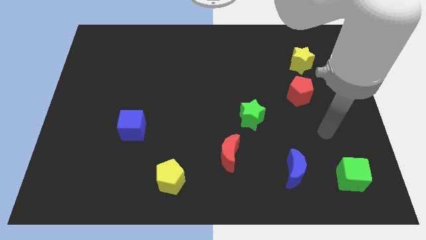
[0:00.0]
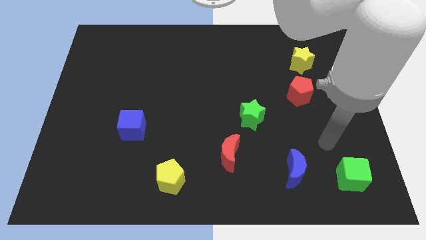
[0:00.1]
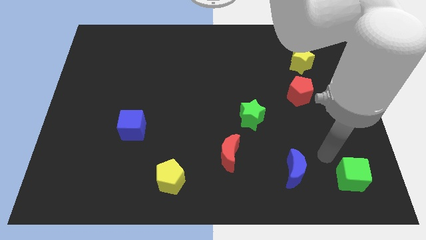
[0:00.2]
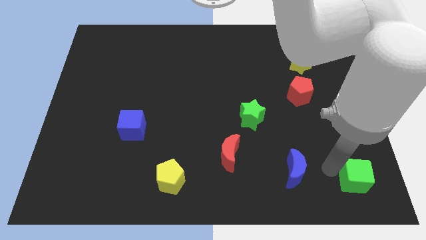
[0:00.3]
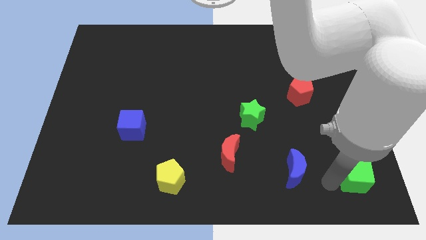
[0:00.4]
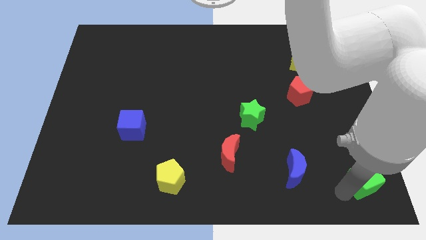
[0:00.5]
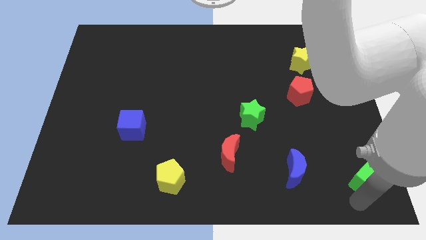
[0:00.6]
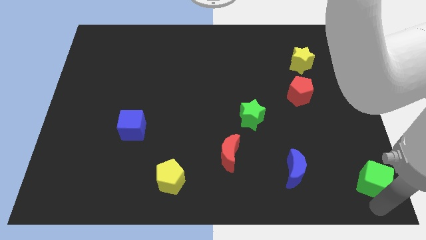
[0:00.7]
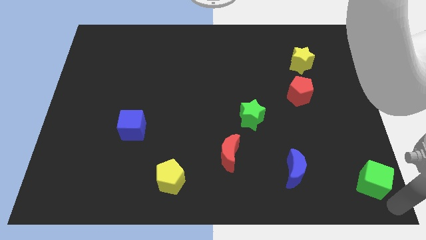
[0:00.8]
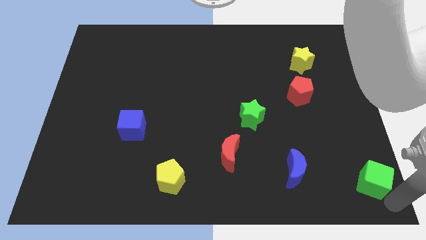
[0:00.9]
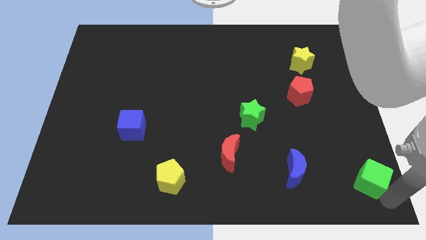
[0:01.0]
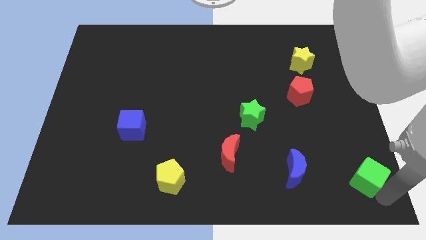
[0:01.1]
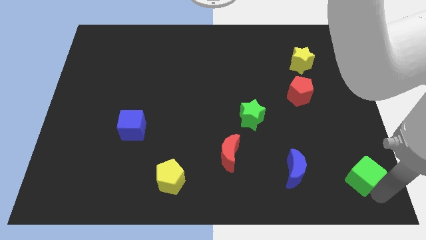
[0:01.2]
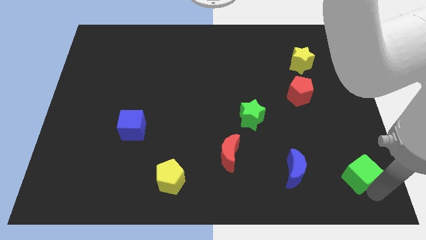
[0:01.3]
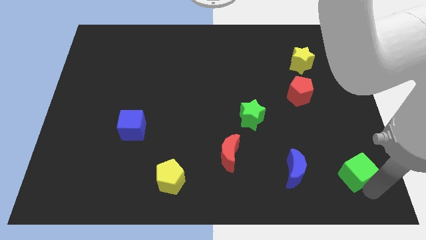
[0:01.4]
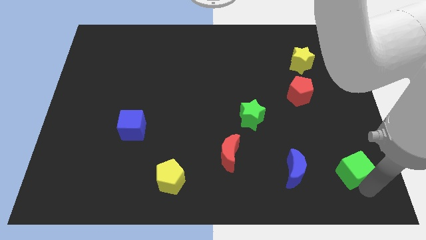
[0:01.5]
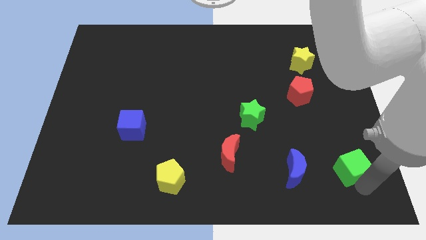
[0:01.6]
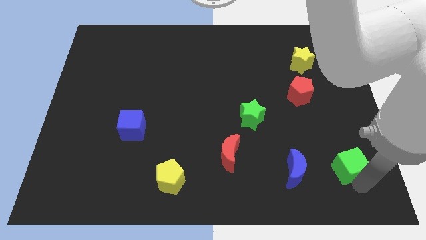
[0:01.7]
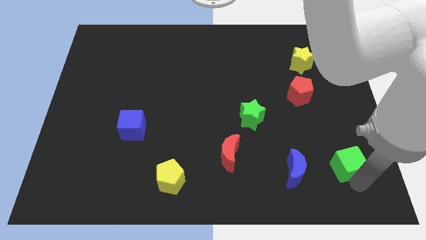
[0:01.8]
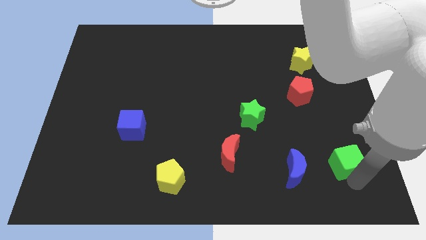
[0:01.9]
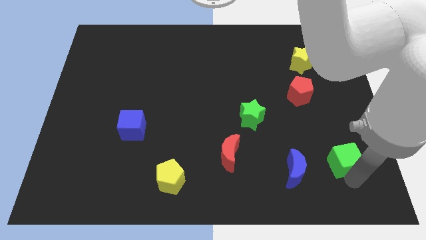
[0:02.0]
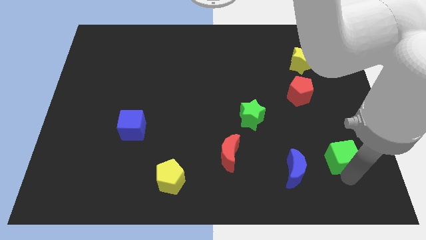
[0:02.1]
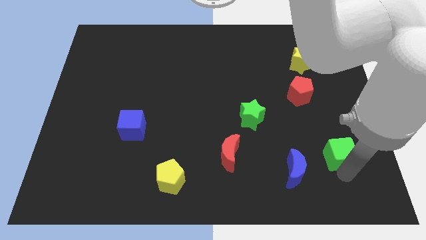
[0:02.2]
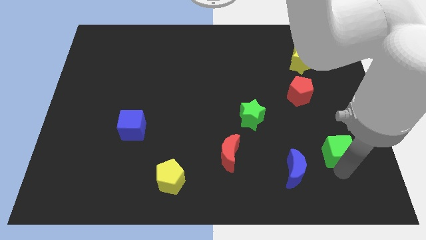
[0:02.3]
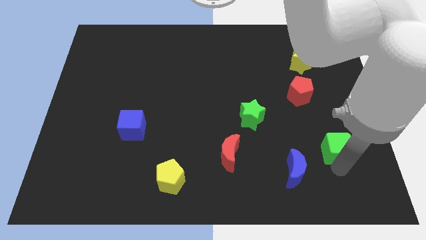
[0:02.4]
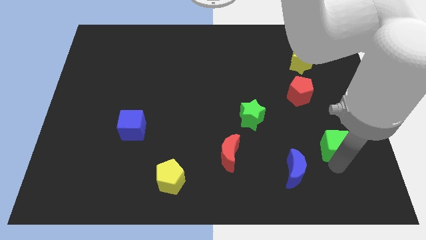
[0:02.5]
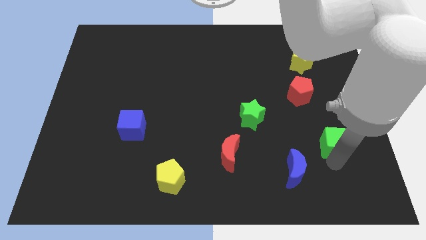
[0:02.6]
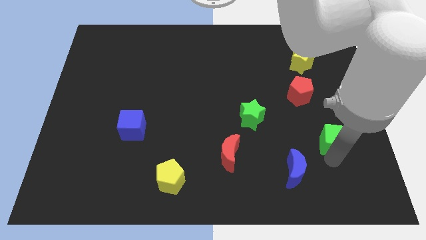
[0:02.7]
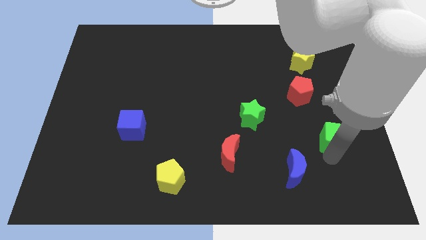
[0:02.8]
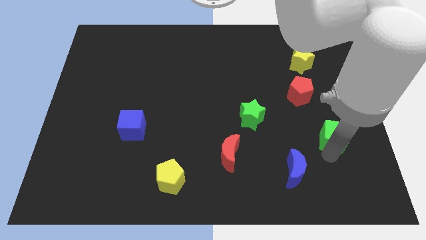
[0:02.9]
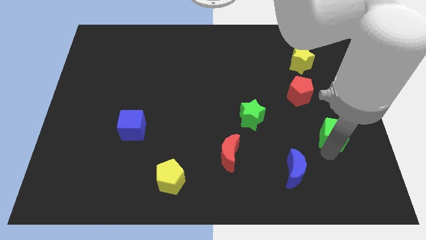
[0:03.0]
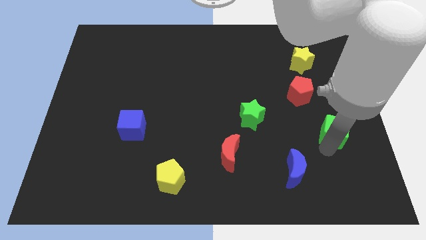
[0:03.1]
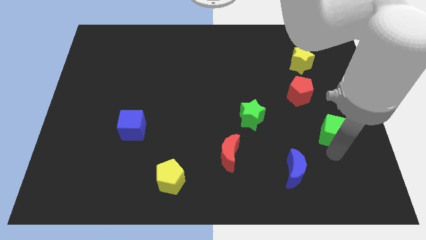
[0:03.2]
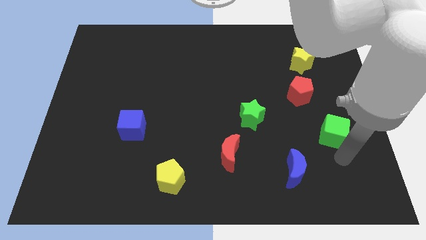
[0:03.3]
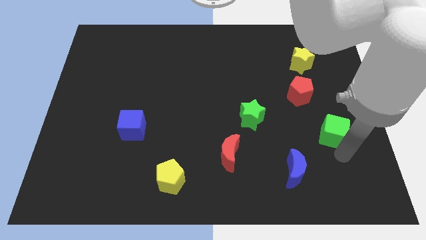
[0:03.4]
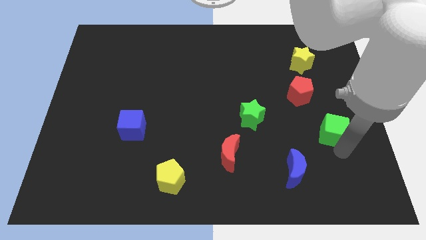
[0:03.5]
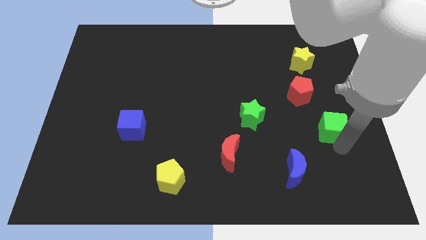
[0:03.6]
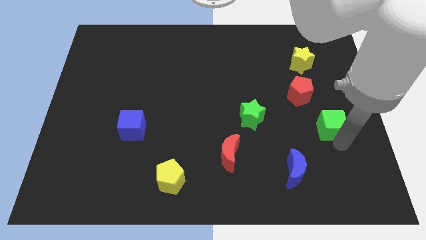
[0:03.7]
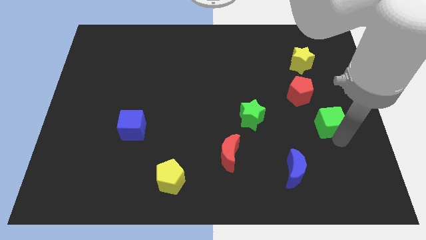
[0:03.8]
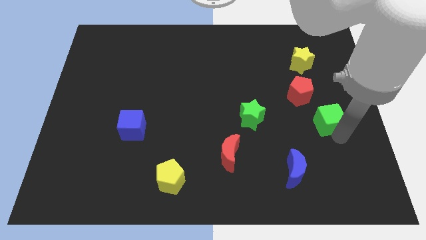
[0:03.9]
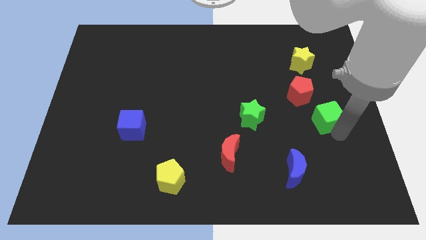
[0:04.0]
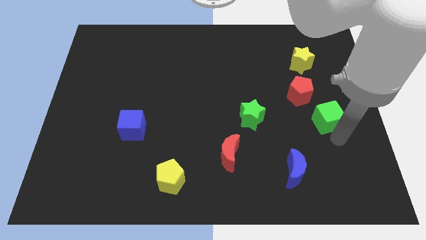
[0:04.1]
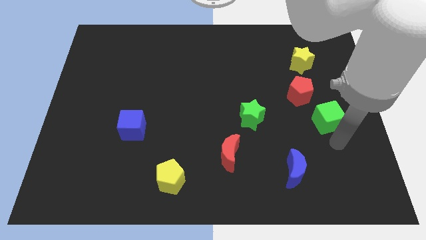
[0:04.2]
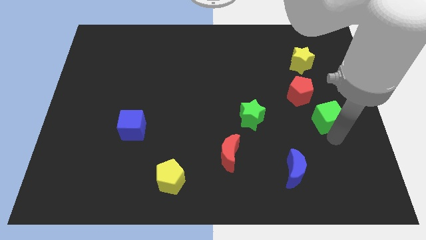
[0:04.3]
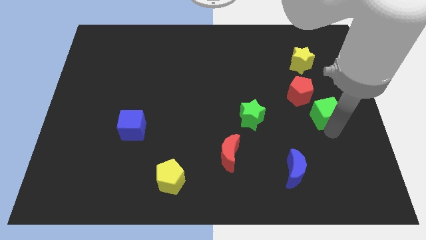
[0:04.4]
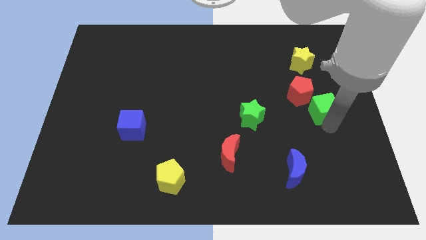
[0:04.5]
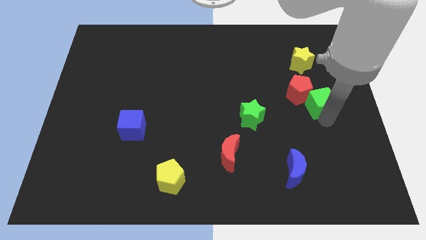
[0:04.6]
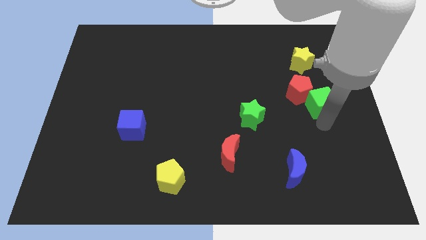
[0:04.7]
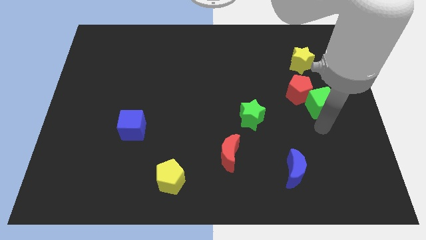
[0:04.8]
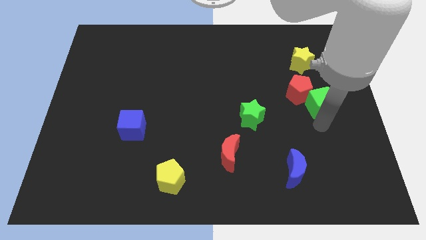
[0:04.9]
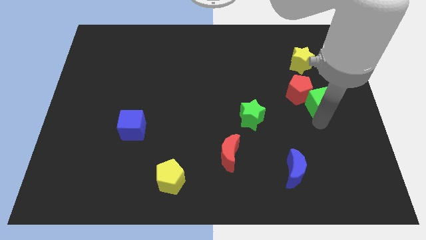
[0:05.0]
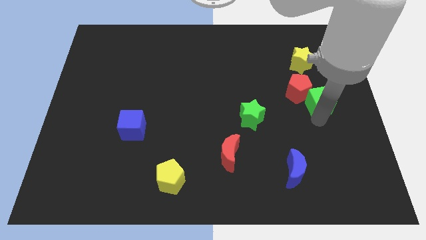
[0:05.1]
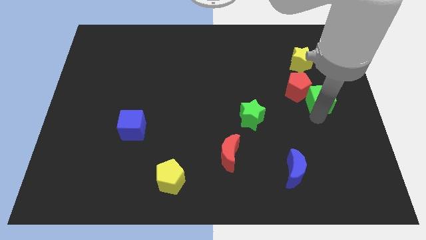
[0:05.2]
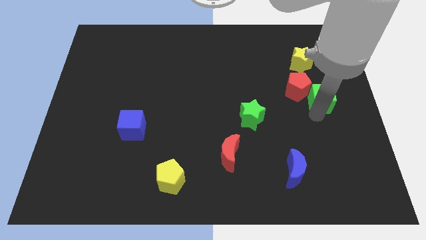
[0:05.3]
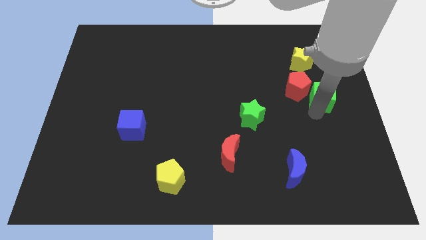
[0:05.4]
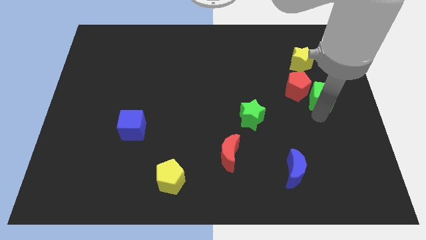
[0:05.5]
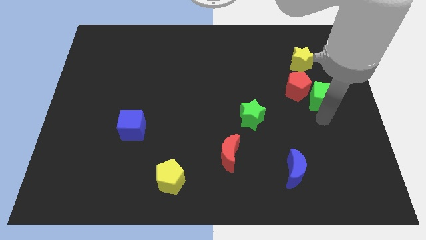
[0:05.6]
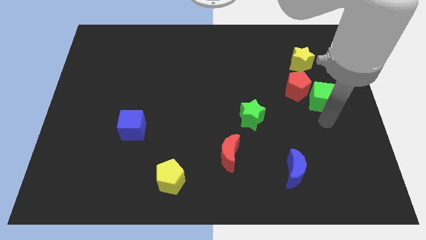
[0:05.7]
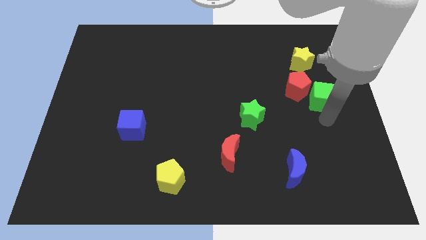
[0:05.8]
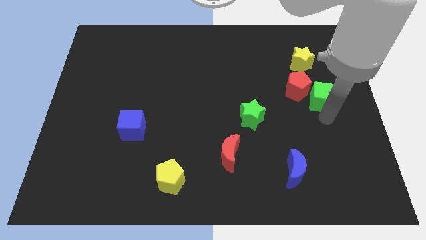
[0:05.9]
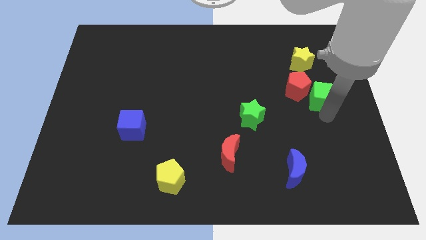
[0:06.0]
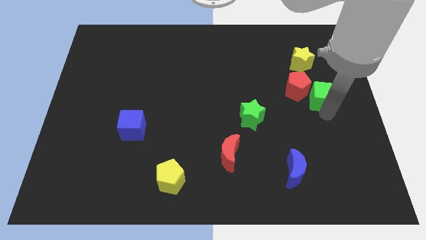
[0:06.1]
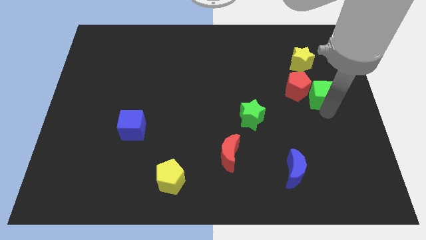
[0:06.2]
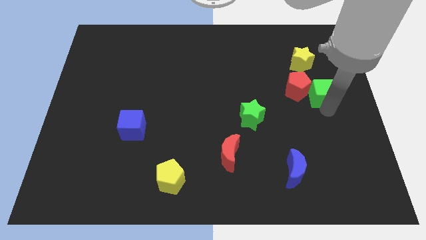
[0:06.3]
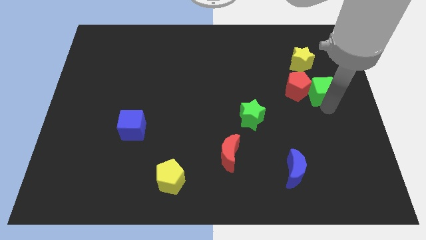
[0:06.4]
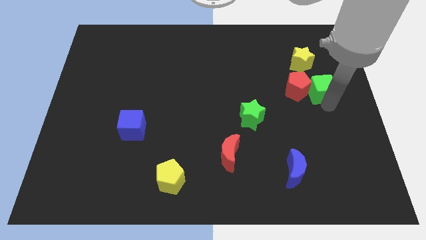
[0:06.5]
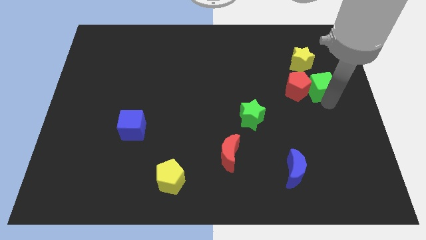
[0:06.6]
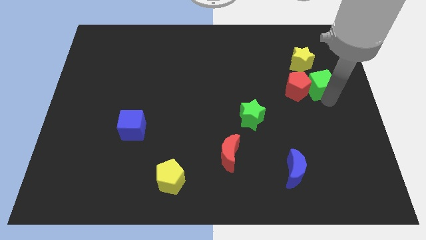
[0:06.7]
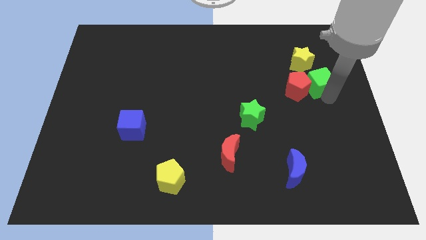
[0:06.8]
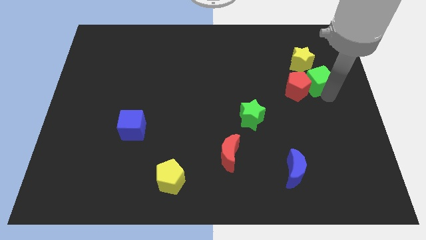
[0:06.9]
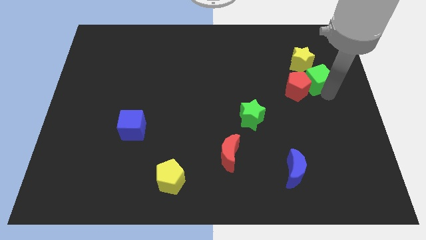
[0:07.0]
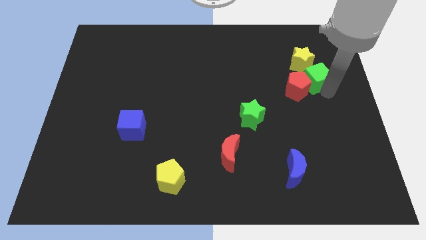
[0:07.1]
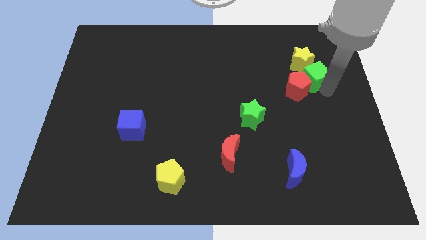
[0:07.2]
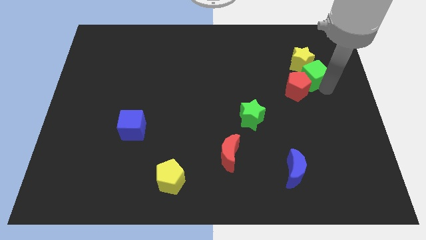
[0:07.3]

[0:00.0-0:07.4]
move the green cube above the red pentagon
